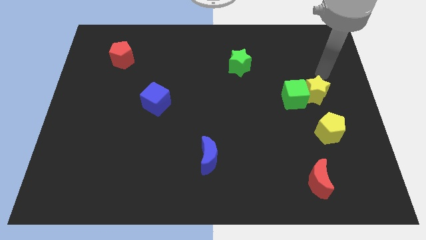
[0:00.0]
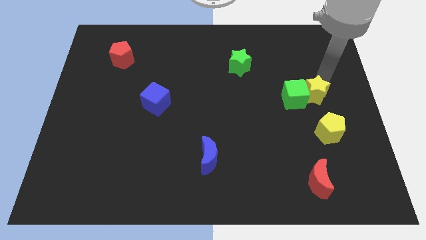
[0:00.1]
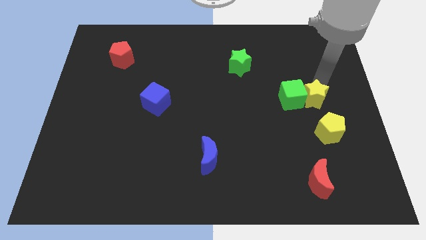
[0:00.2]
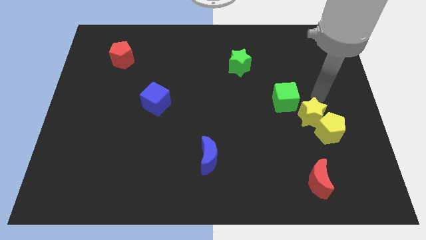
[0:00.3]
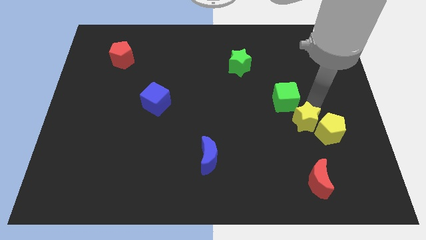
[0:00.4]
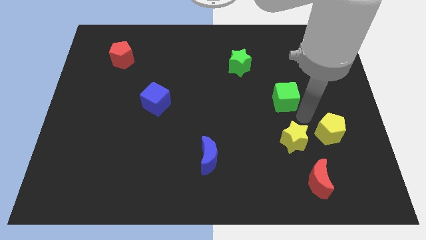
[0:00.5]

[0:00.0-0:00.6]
separate the green cube from the yellow star

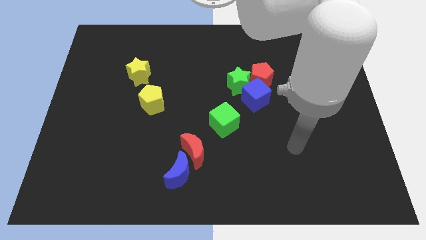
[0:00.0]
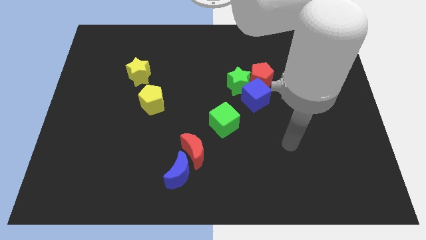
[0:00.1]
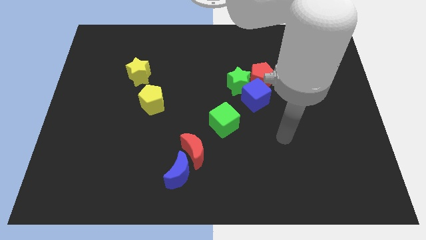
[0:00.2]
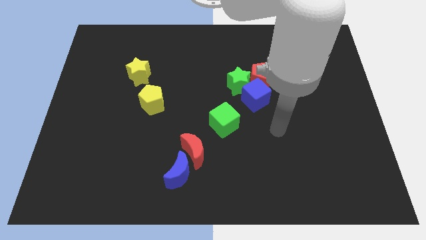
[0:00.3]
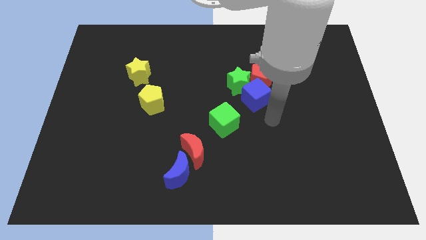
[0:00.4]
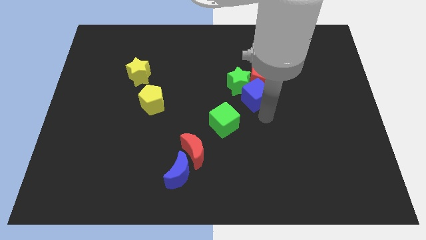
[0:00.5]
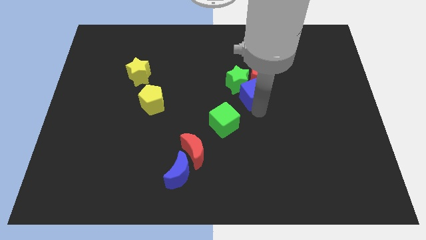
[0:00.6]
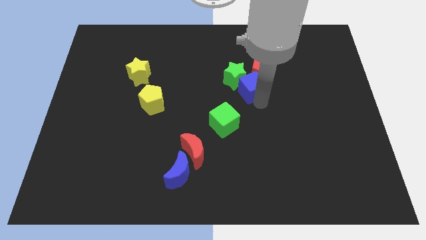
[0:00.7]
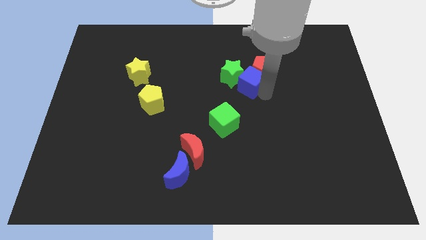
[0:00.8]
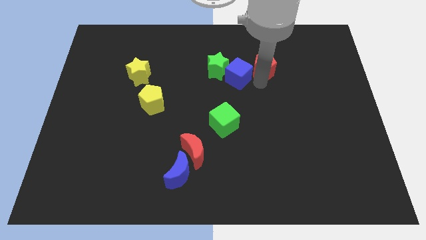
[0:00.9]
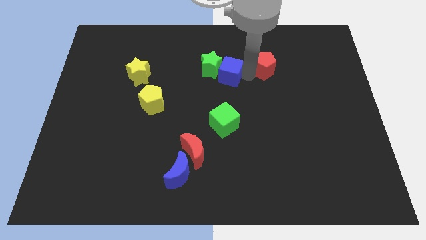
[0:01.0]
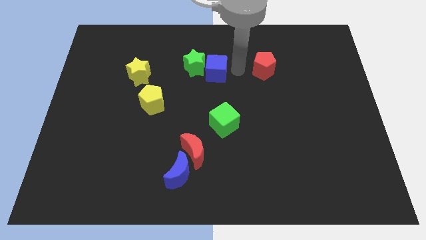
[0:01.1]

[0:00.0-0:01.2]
pull the green star apart from the blue cube and red pentagon

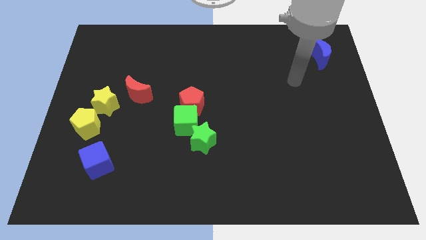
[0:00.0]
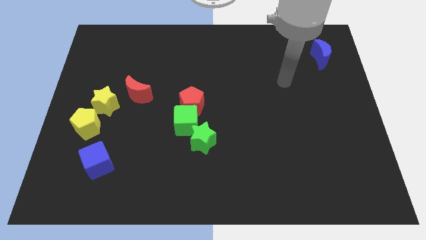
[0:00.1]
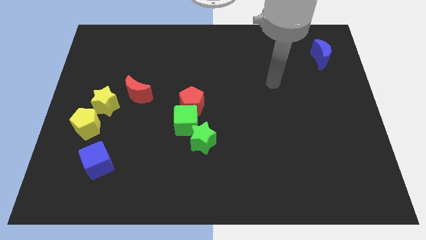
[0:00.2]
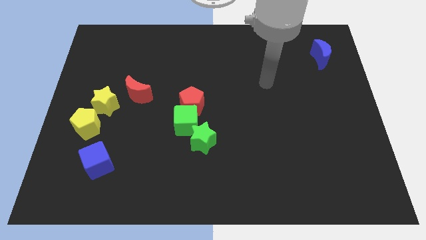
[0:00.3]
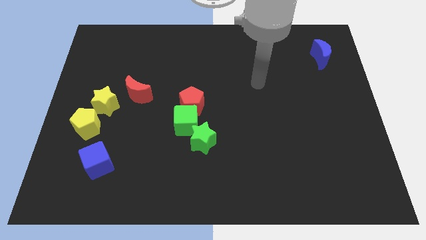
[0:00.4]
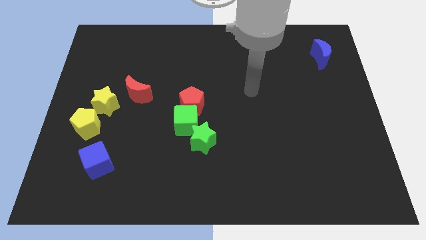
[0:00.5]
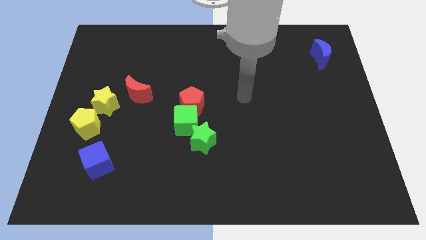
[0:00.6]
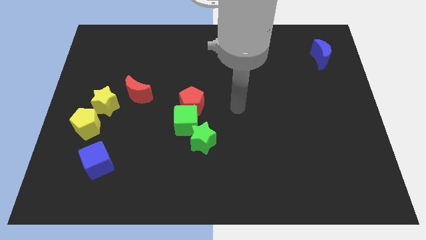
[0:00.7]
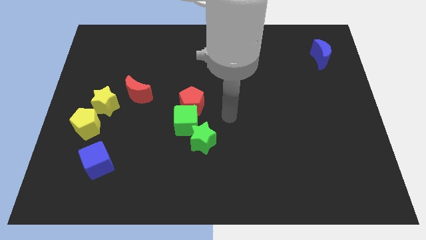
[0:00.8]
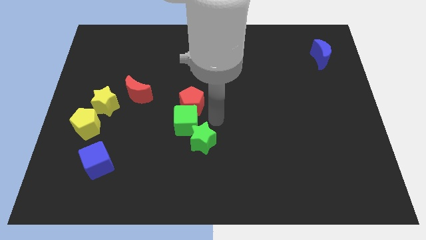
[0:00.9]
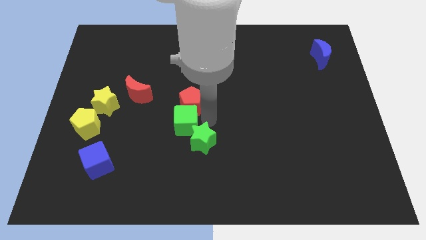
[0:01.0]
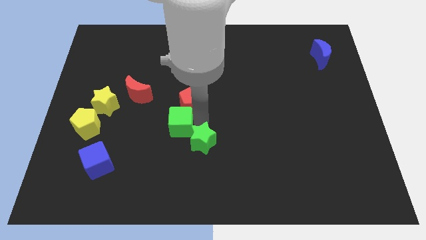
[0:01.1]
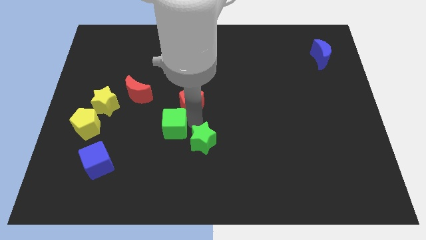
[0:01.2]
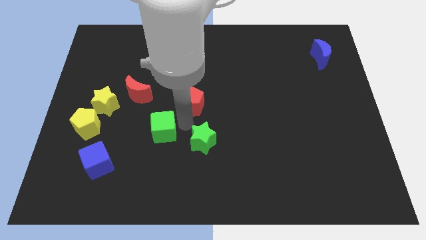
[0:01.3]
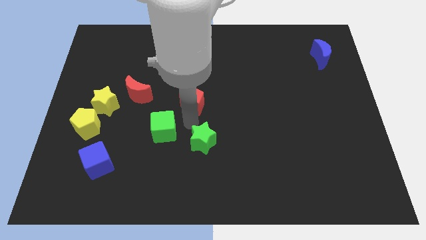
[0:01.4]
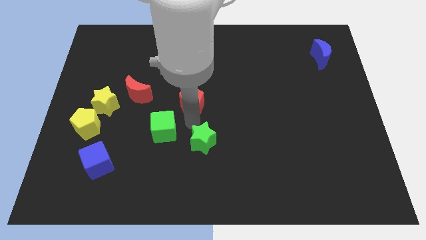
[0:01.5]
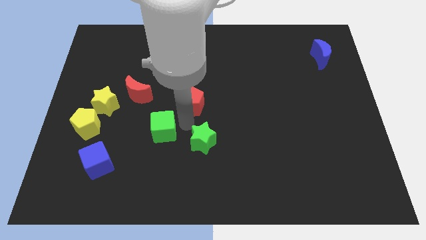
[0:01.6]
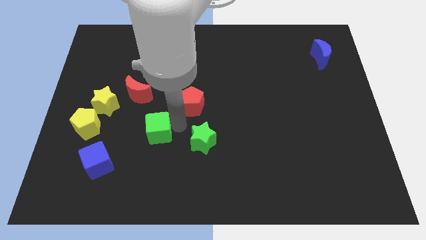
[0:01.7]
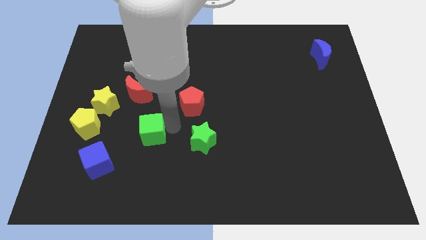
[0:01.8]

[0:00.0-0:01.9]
move the green cube away from the red pentagon and green star

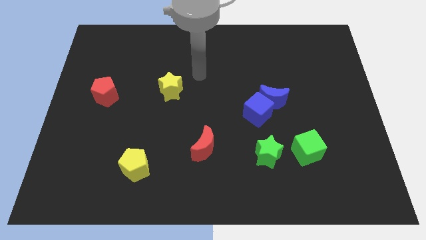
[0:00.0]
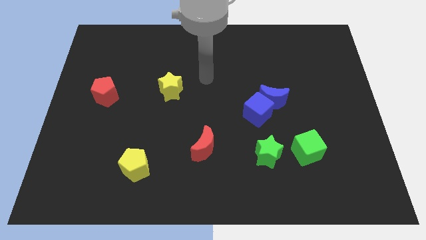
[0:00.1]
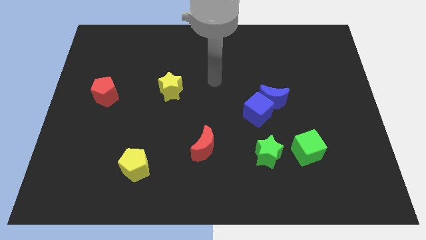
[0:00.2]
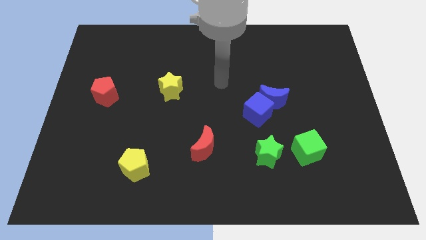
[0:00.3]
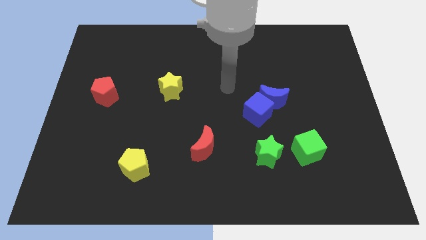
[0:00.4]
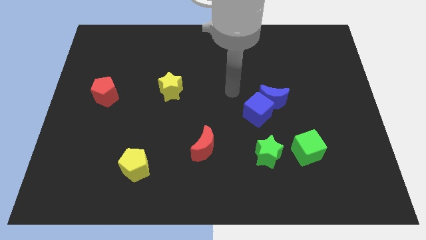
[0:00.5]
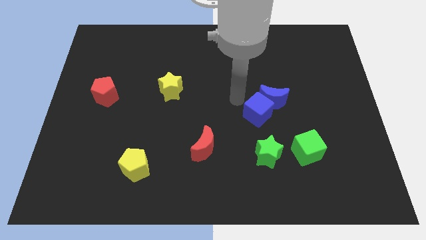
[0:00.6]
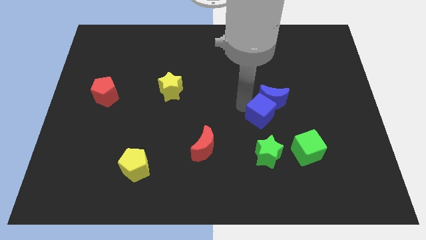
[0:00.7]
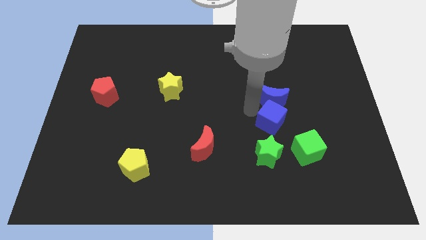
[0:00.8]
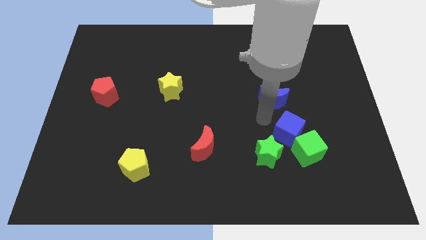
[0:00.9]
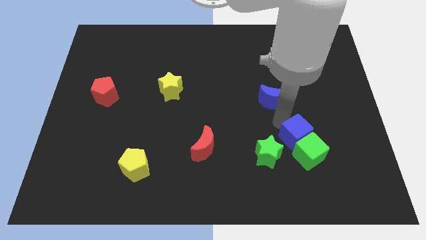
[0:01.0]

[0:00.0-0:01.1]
move the blue moon away from the blue cube

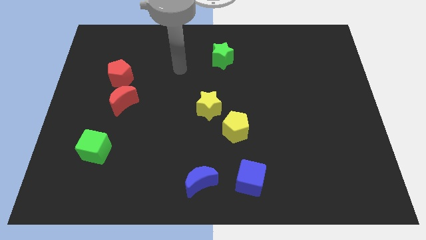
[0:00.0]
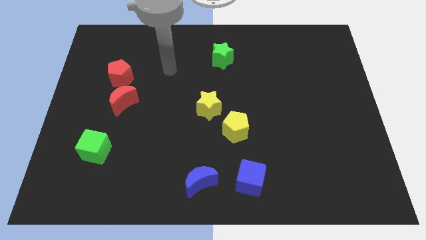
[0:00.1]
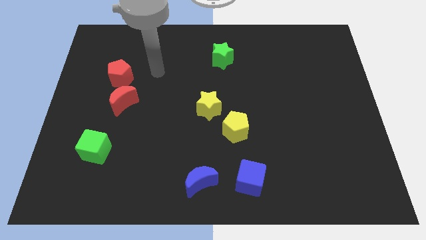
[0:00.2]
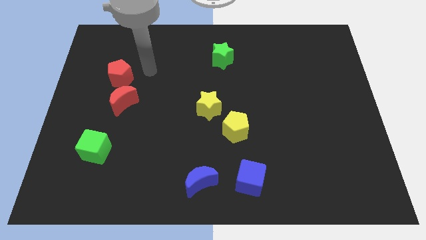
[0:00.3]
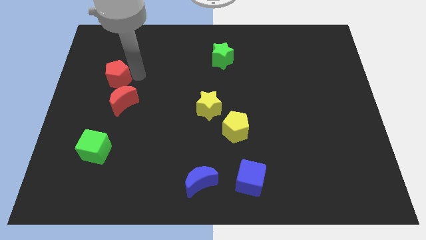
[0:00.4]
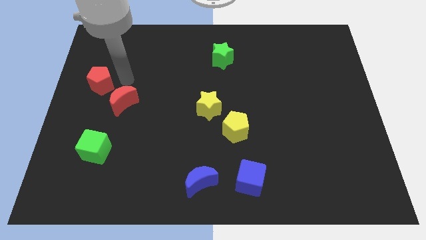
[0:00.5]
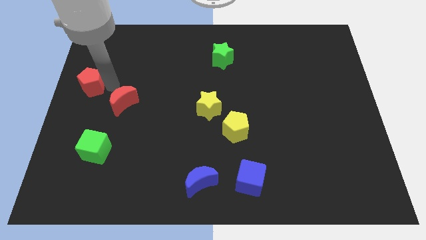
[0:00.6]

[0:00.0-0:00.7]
separate the red moon from the red pentagon

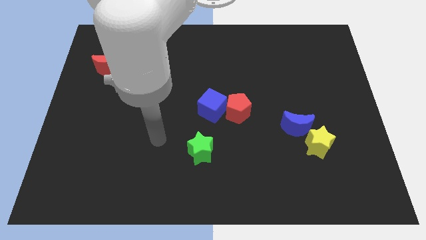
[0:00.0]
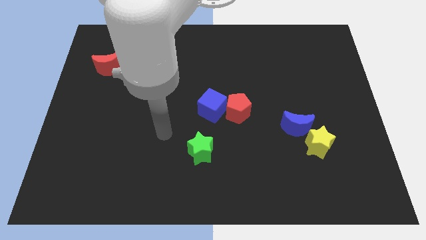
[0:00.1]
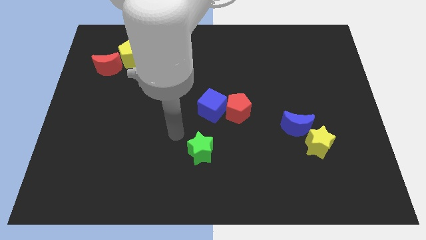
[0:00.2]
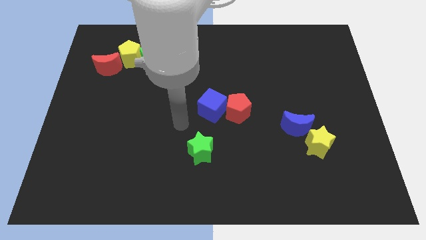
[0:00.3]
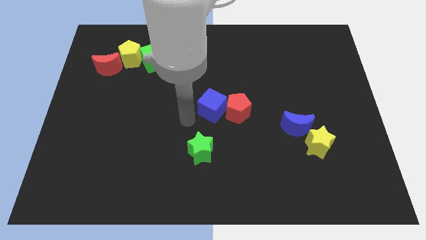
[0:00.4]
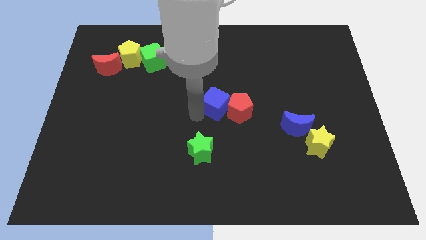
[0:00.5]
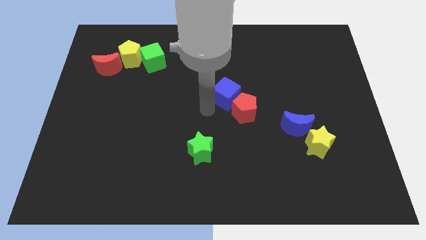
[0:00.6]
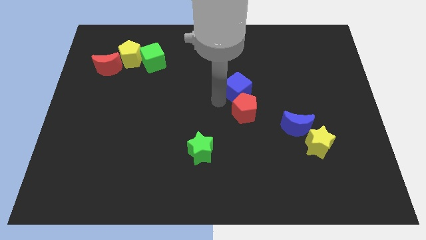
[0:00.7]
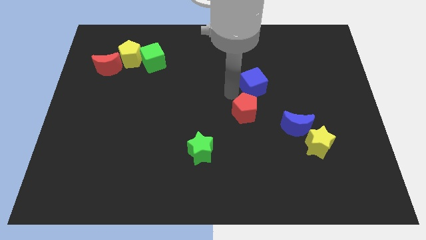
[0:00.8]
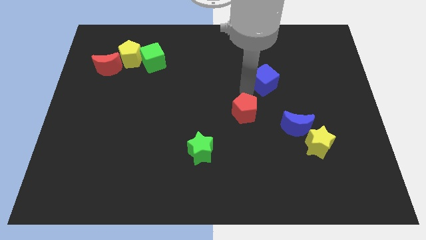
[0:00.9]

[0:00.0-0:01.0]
pull the red pentagon apart from the blue cube

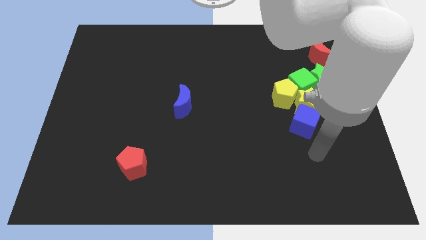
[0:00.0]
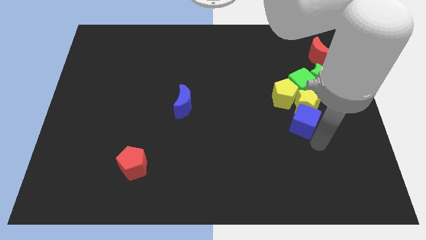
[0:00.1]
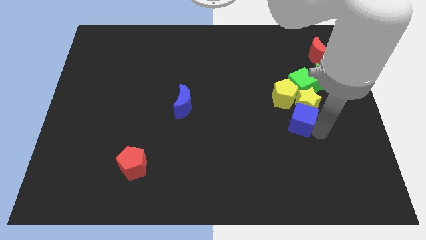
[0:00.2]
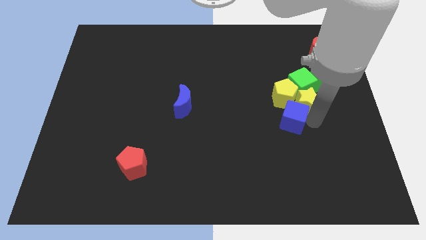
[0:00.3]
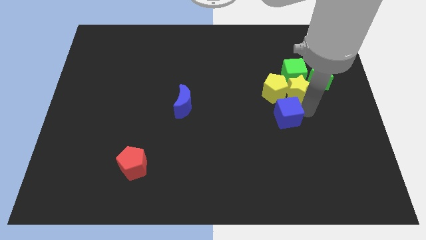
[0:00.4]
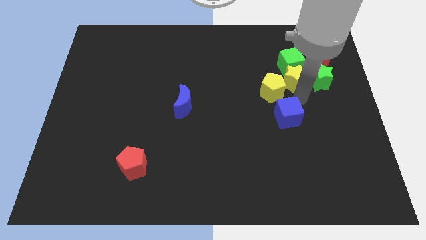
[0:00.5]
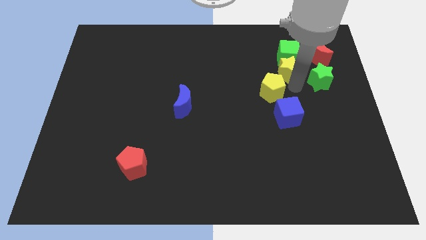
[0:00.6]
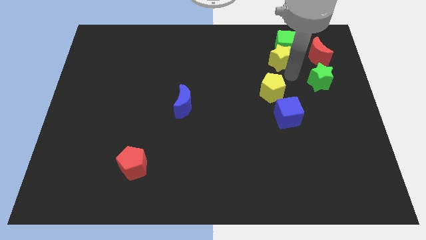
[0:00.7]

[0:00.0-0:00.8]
move the green cube away from the green star, yellow pentagon, and yellow star

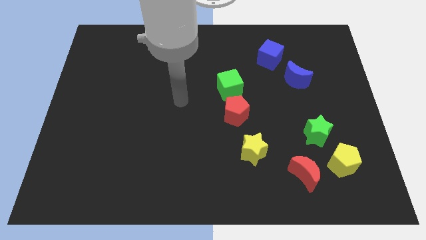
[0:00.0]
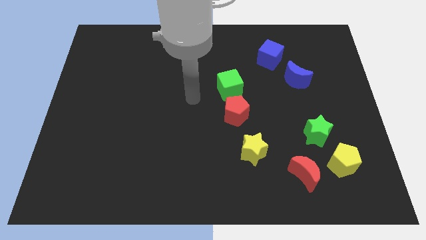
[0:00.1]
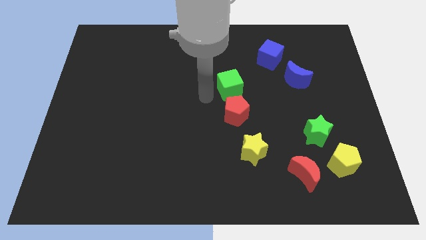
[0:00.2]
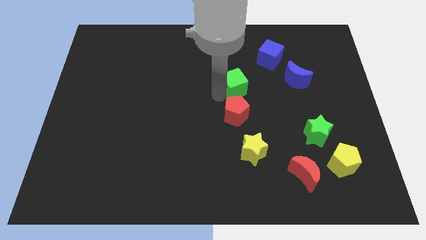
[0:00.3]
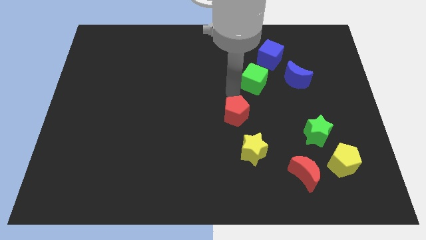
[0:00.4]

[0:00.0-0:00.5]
pull the red pentagon apart from the green cube

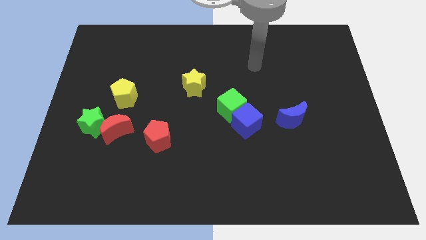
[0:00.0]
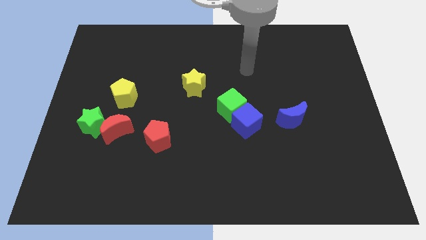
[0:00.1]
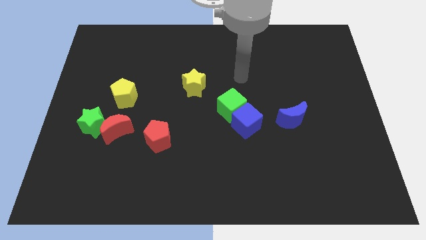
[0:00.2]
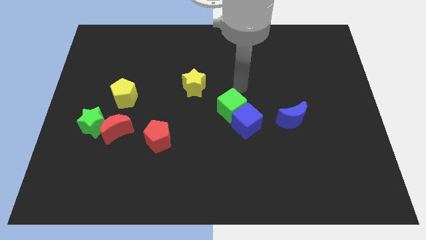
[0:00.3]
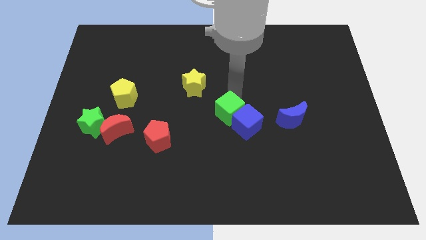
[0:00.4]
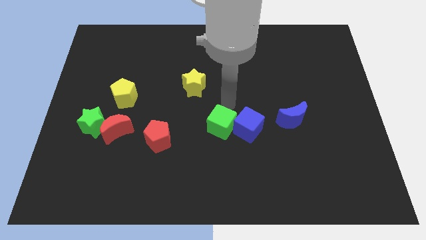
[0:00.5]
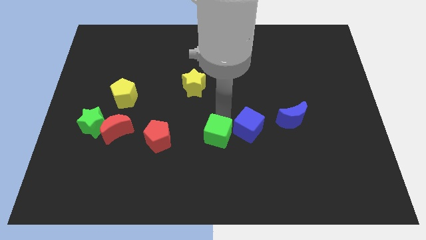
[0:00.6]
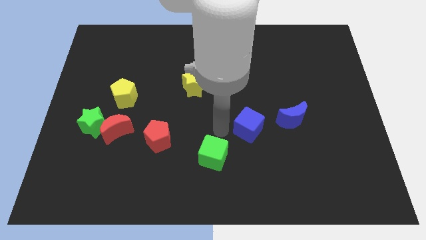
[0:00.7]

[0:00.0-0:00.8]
move the blue cube away from the green cube

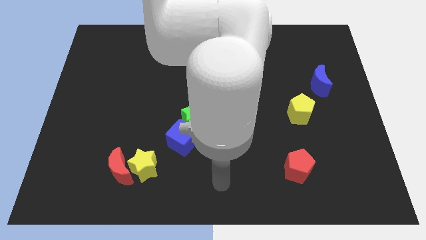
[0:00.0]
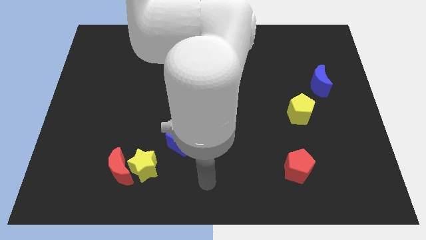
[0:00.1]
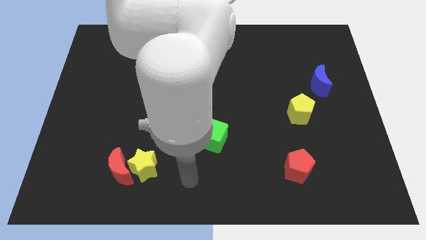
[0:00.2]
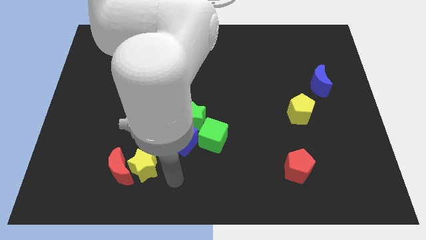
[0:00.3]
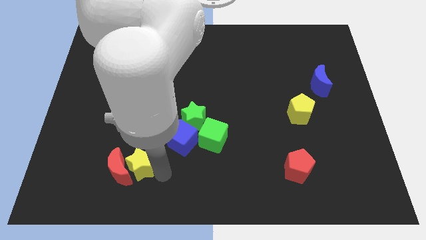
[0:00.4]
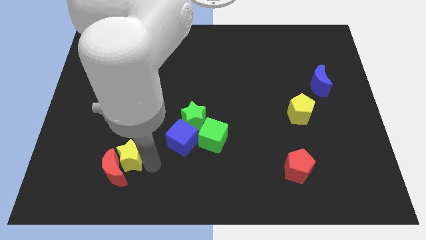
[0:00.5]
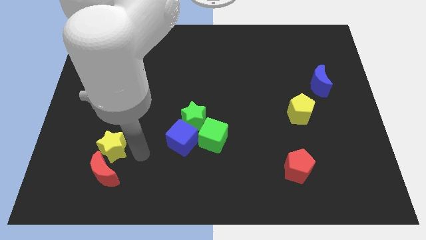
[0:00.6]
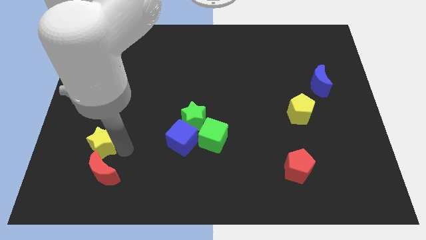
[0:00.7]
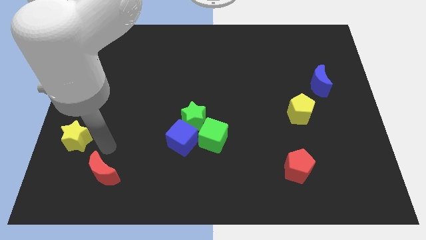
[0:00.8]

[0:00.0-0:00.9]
pull the red moon apart from the yellow star
